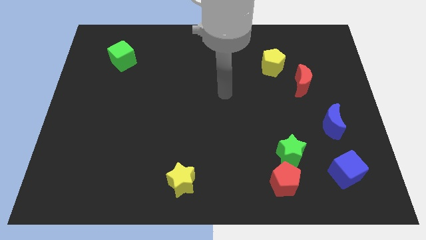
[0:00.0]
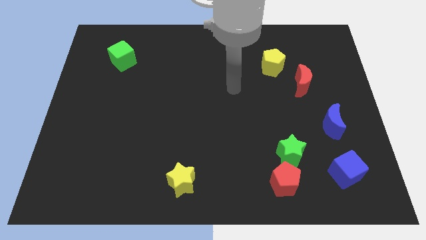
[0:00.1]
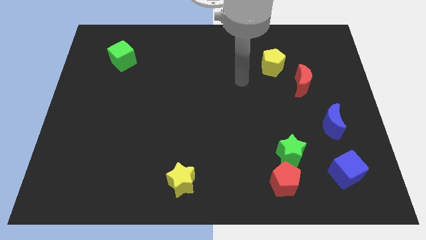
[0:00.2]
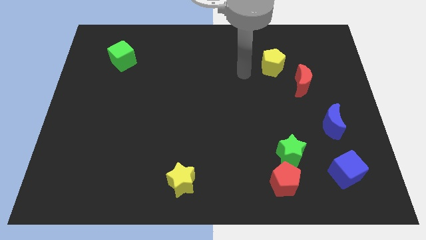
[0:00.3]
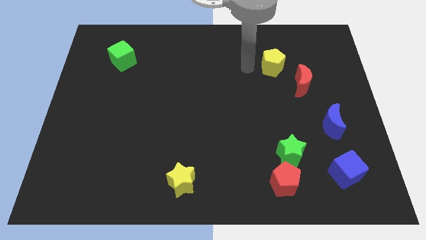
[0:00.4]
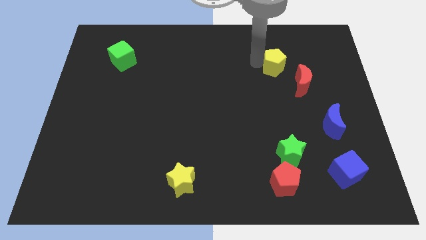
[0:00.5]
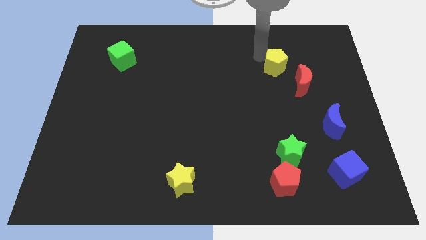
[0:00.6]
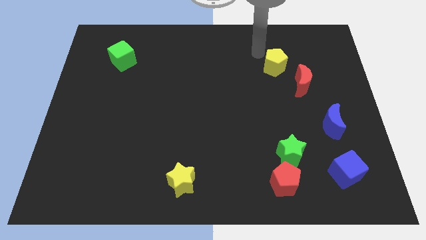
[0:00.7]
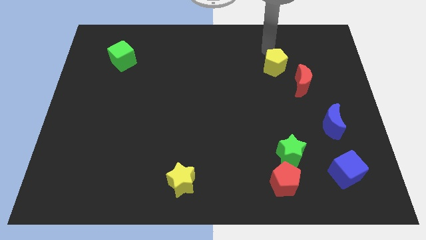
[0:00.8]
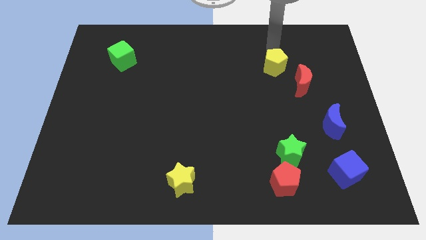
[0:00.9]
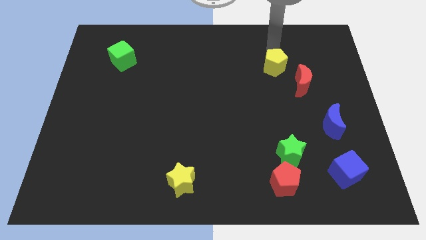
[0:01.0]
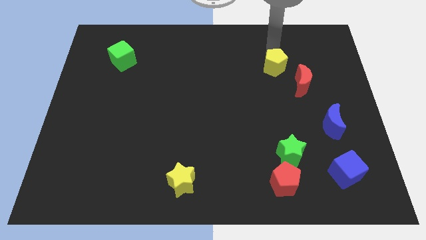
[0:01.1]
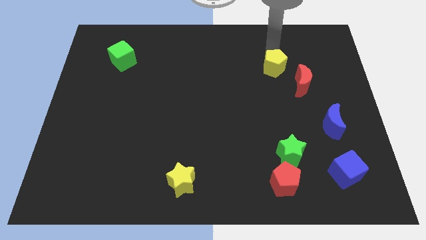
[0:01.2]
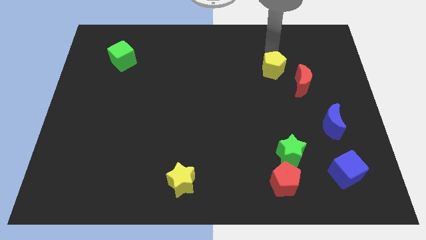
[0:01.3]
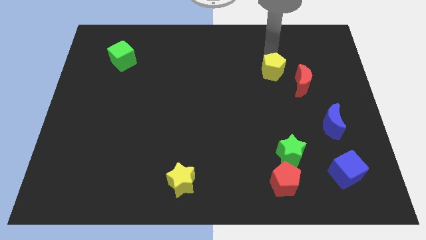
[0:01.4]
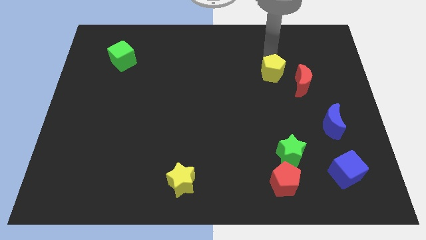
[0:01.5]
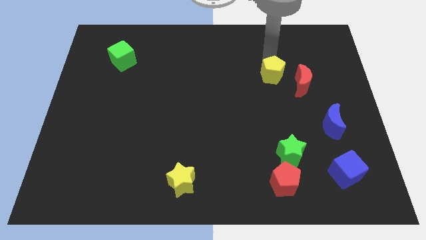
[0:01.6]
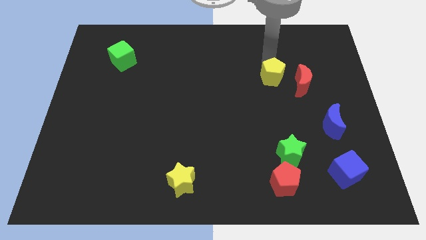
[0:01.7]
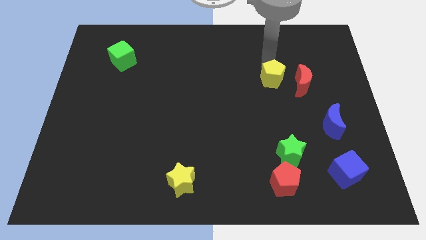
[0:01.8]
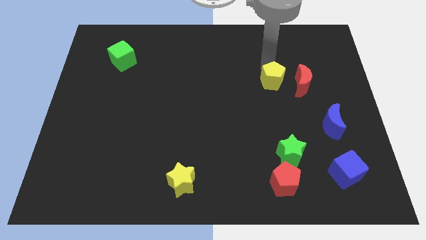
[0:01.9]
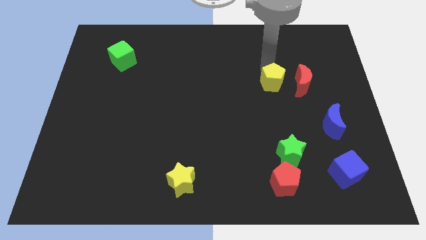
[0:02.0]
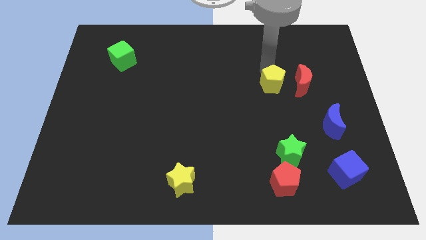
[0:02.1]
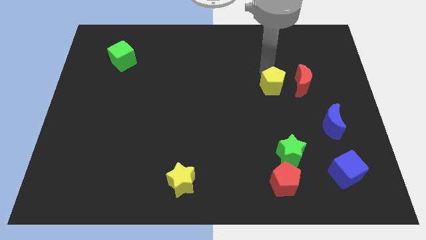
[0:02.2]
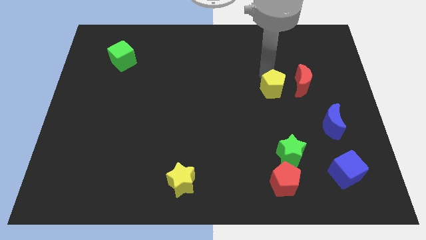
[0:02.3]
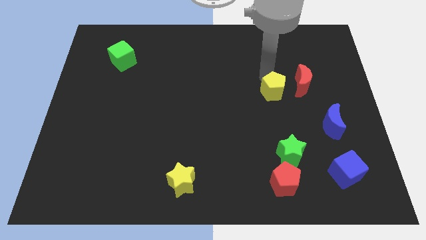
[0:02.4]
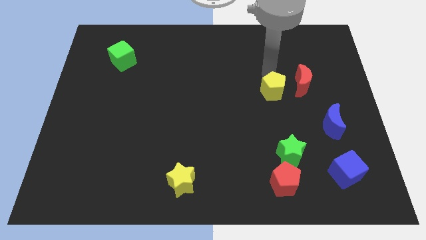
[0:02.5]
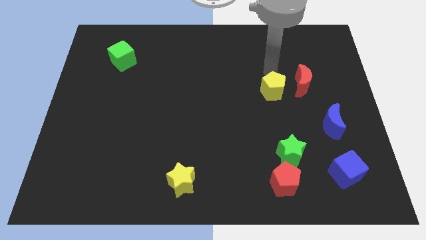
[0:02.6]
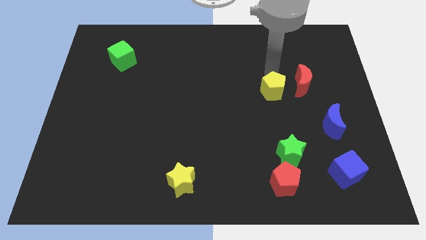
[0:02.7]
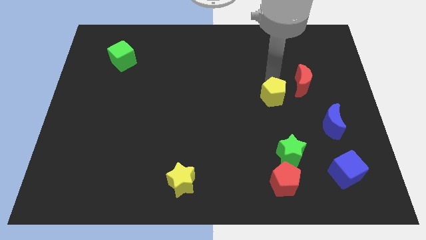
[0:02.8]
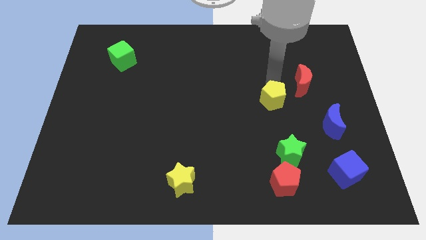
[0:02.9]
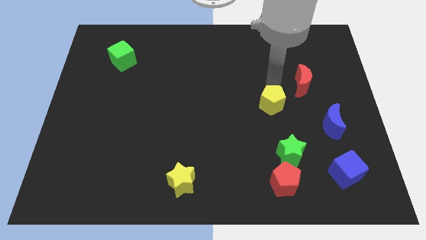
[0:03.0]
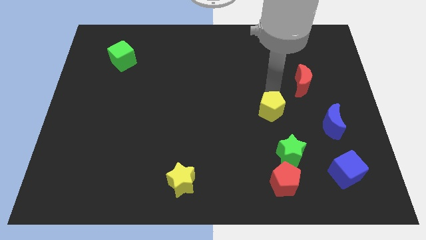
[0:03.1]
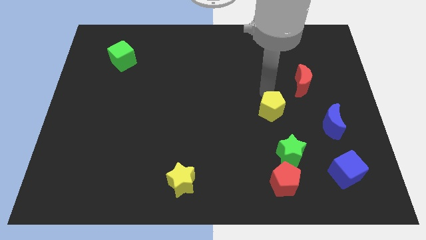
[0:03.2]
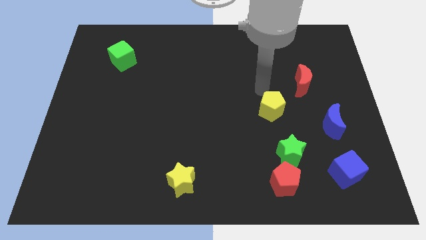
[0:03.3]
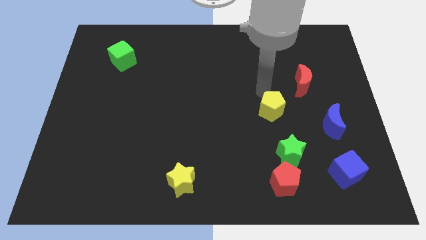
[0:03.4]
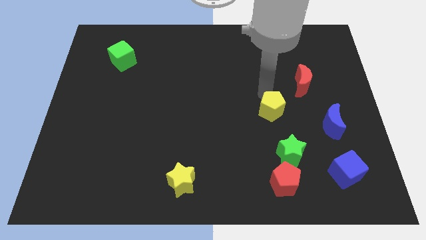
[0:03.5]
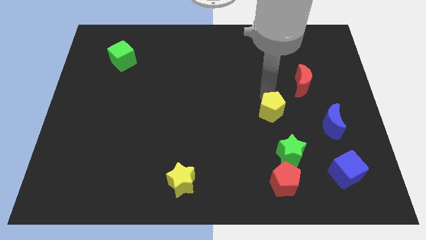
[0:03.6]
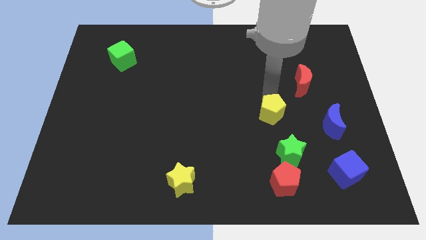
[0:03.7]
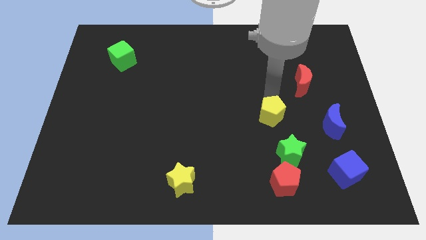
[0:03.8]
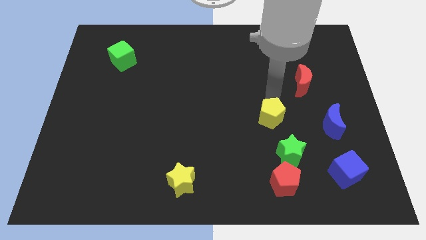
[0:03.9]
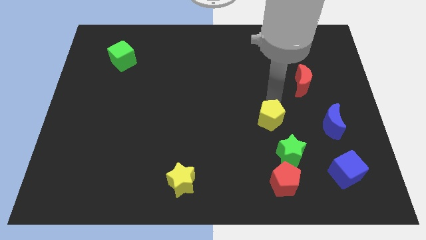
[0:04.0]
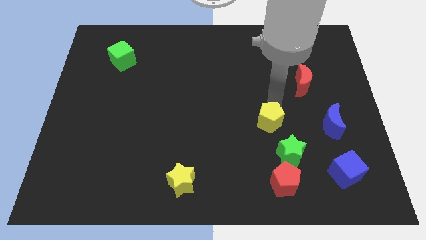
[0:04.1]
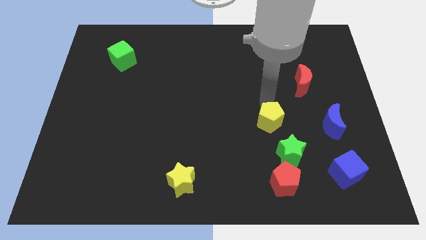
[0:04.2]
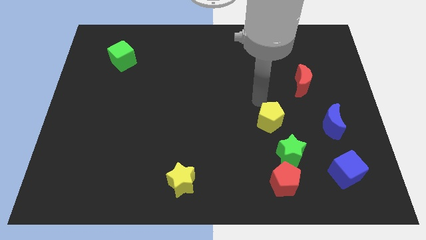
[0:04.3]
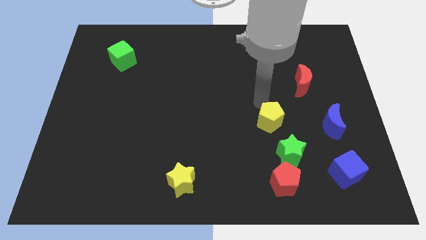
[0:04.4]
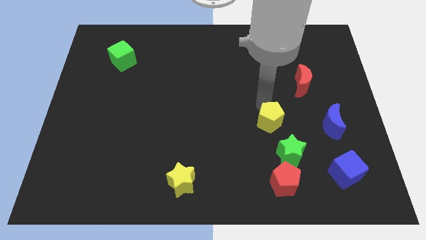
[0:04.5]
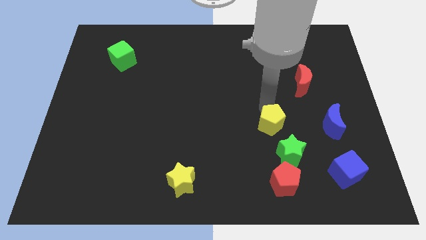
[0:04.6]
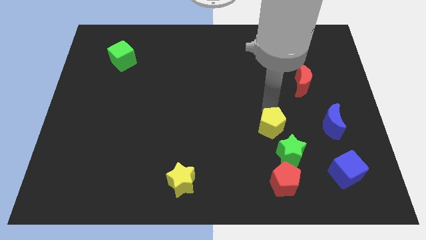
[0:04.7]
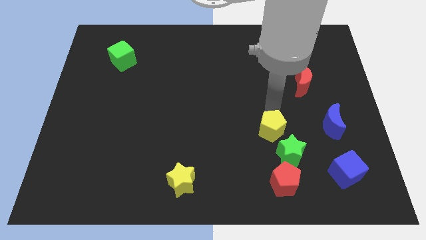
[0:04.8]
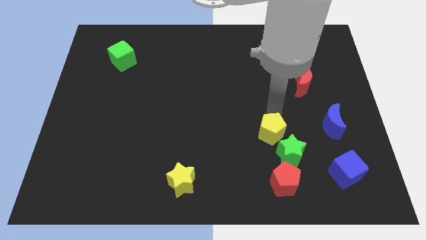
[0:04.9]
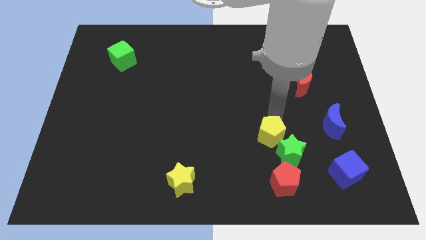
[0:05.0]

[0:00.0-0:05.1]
slide the yellow pentagon to the green star

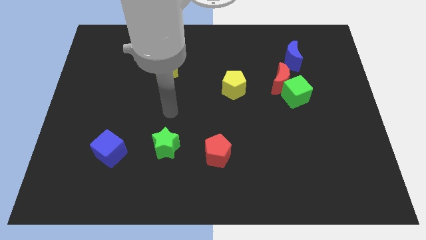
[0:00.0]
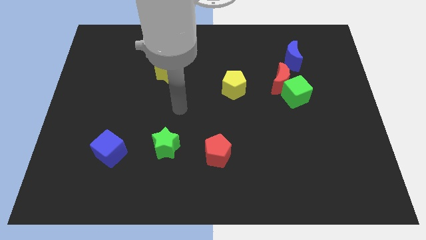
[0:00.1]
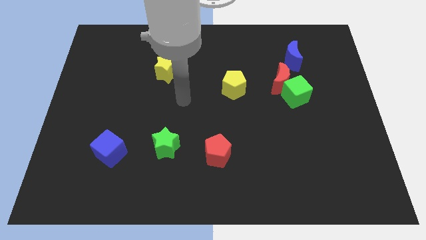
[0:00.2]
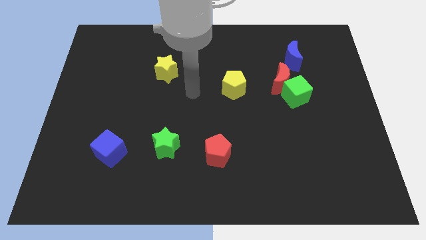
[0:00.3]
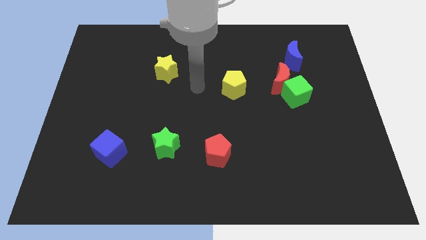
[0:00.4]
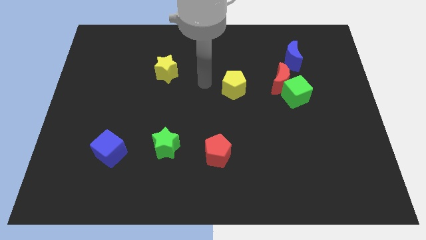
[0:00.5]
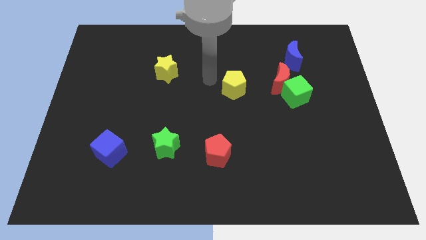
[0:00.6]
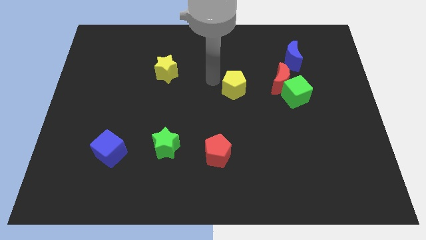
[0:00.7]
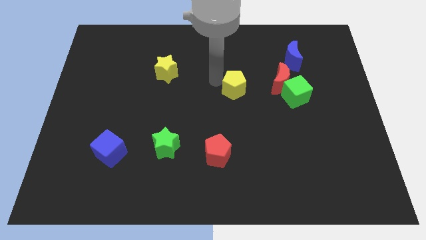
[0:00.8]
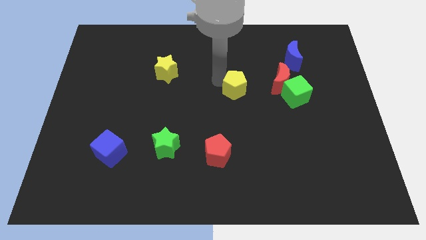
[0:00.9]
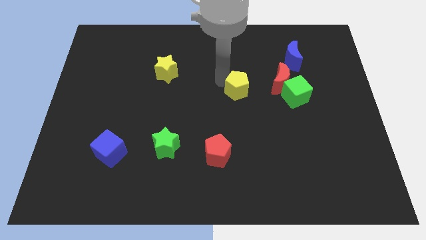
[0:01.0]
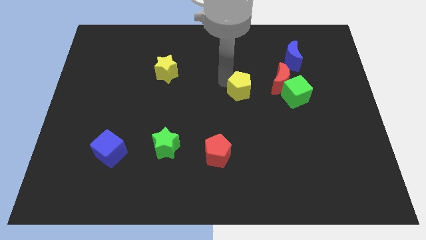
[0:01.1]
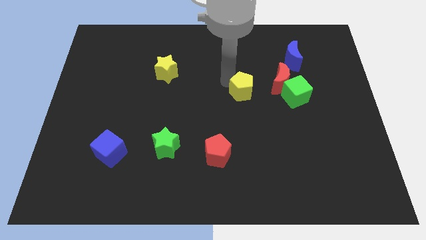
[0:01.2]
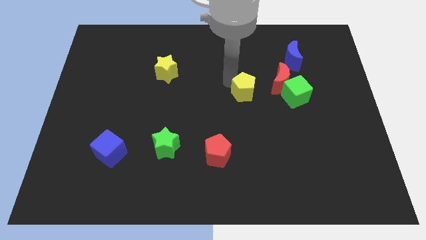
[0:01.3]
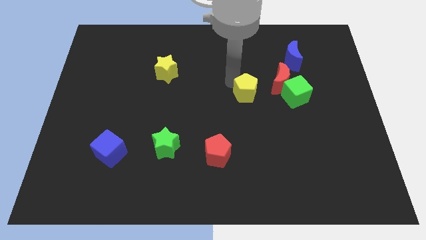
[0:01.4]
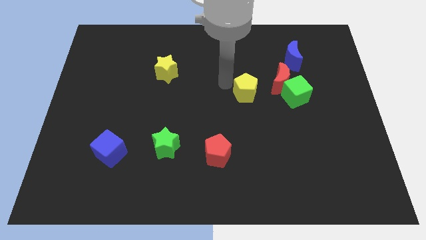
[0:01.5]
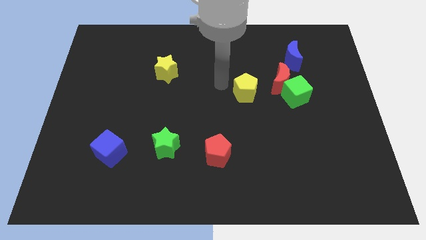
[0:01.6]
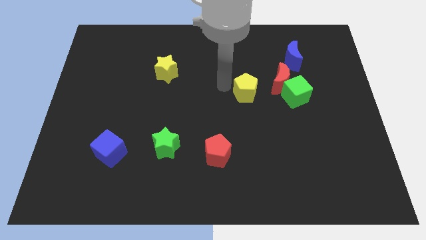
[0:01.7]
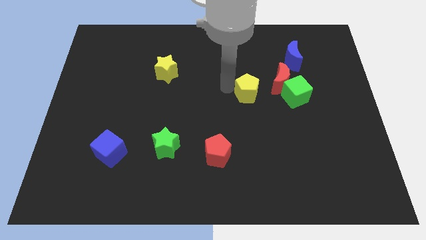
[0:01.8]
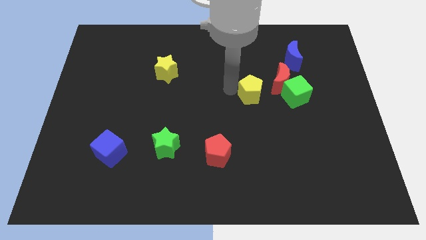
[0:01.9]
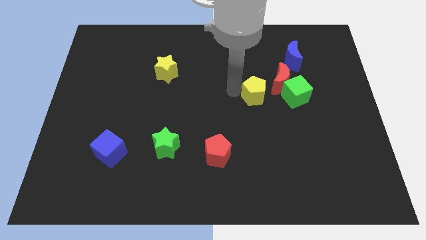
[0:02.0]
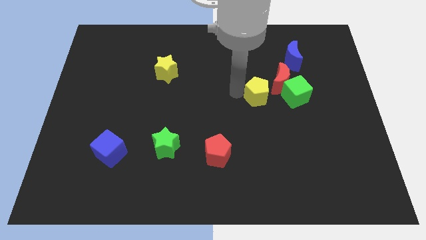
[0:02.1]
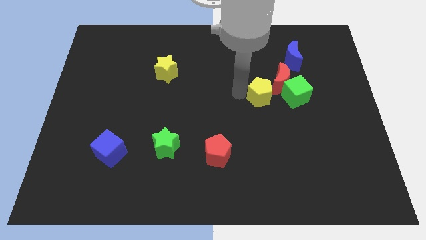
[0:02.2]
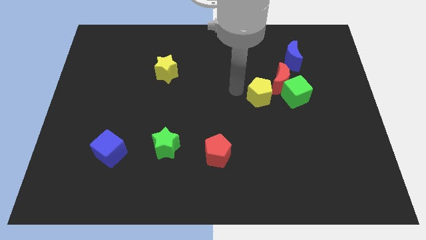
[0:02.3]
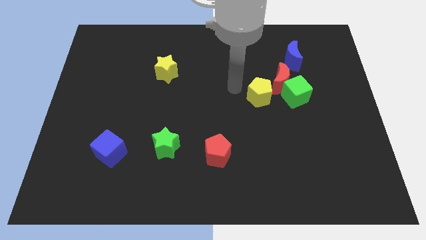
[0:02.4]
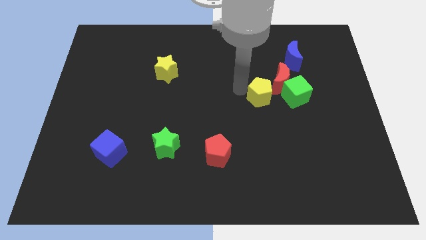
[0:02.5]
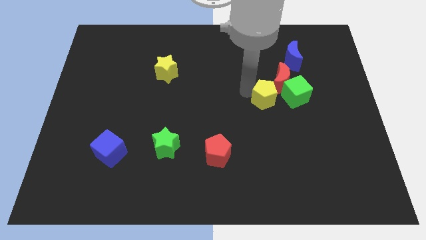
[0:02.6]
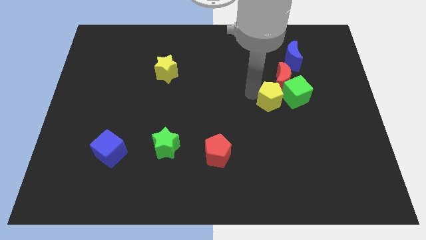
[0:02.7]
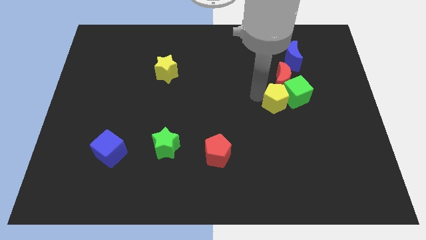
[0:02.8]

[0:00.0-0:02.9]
move the yellow pentagon close to the green cube

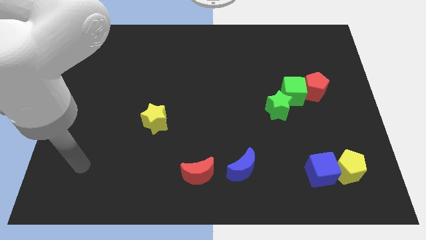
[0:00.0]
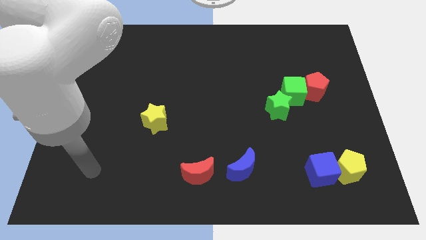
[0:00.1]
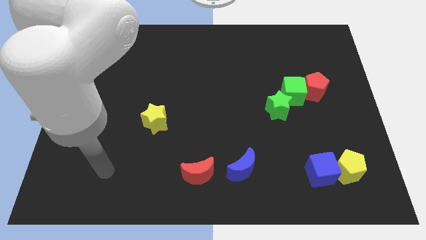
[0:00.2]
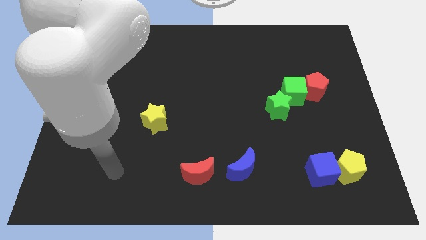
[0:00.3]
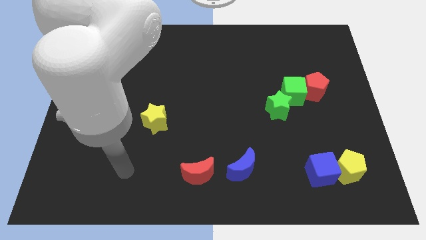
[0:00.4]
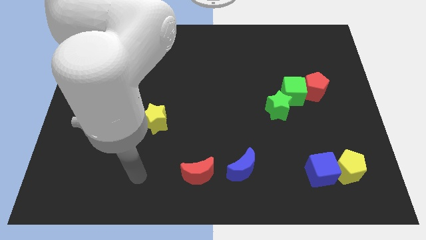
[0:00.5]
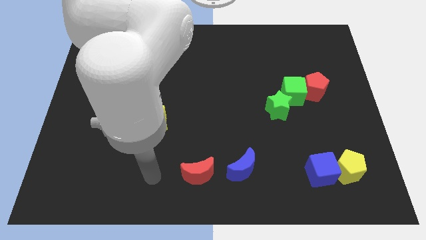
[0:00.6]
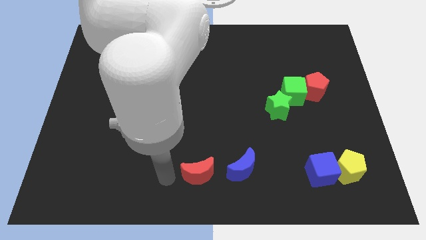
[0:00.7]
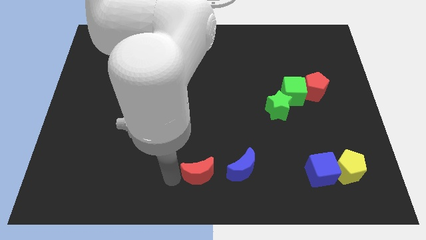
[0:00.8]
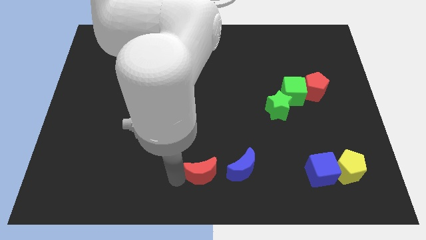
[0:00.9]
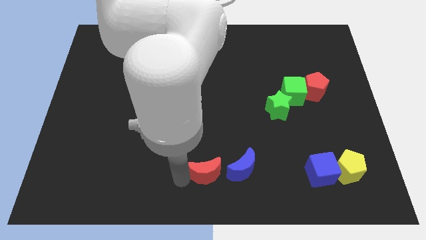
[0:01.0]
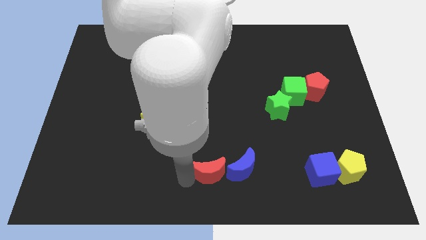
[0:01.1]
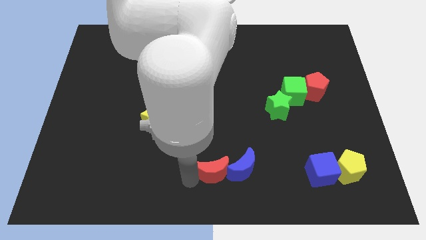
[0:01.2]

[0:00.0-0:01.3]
slide the red moon close to the blue moon
